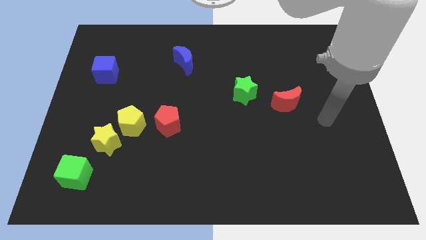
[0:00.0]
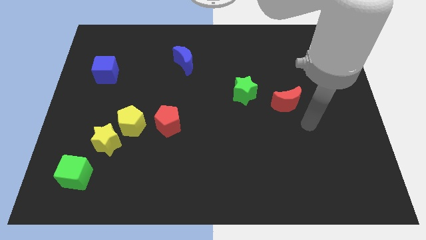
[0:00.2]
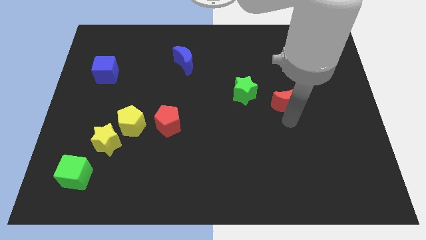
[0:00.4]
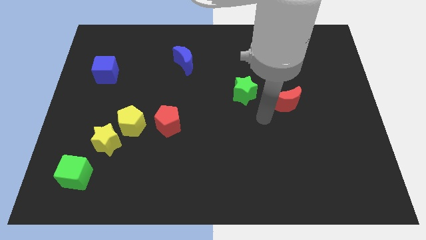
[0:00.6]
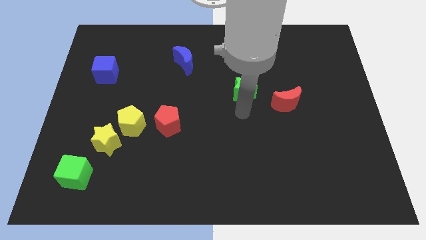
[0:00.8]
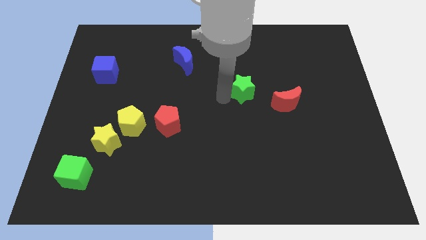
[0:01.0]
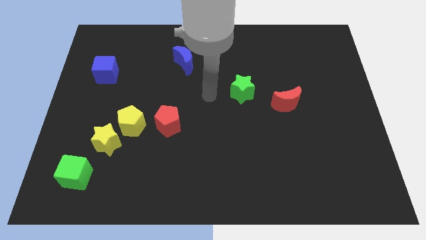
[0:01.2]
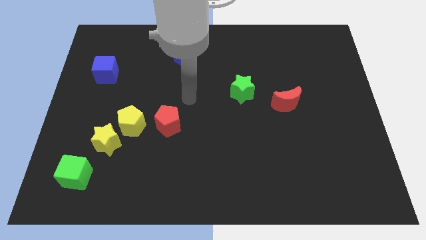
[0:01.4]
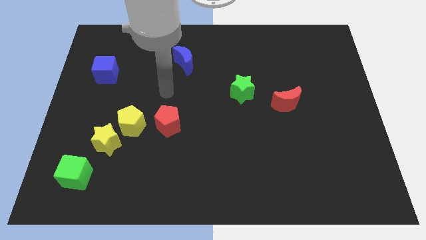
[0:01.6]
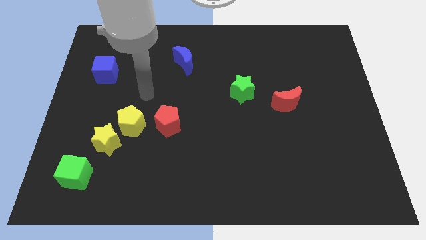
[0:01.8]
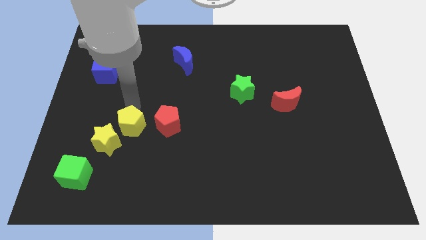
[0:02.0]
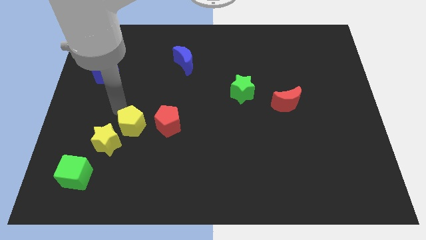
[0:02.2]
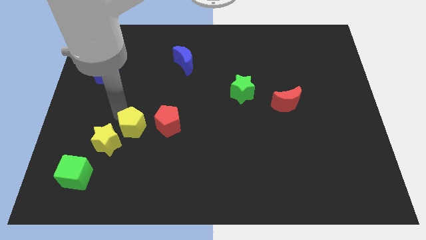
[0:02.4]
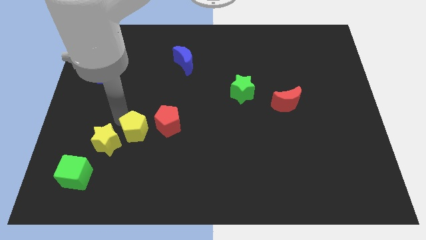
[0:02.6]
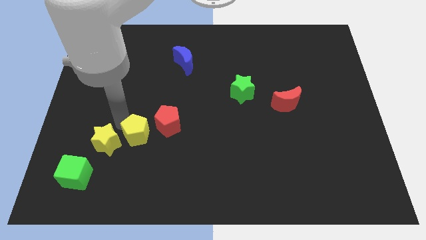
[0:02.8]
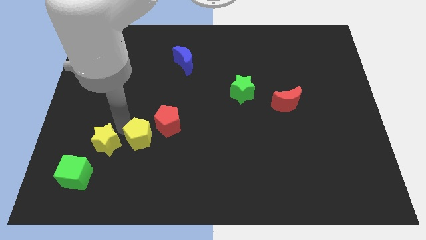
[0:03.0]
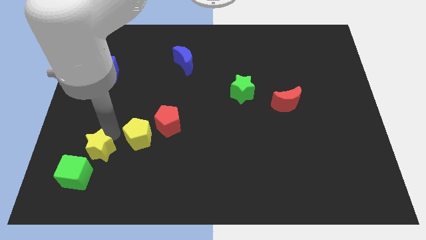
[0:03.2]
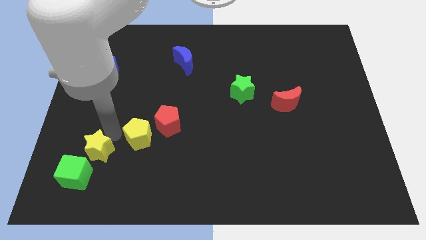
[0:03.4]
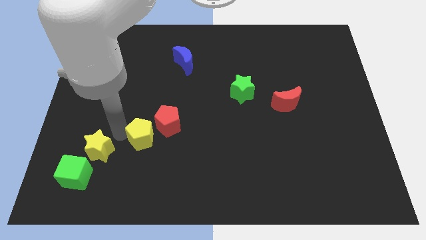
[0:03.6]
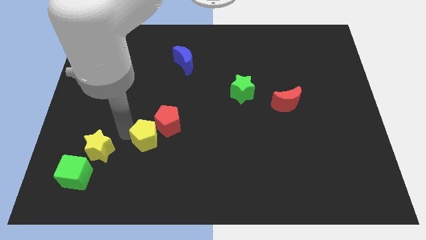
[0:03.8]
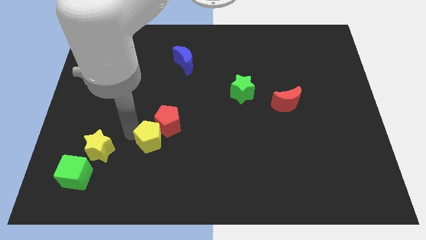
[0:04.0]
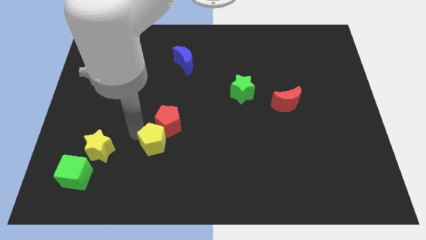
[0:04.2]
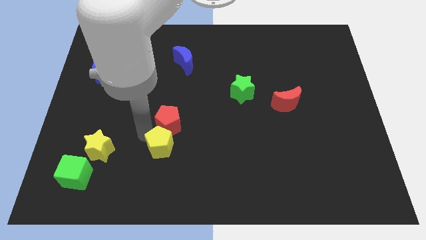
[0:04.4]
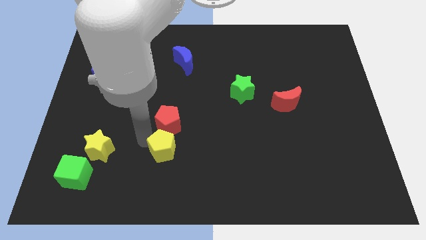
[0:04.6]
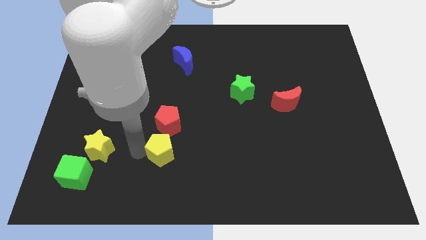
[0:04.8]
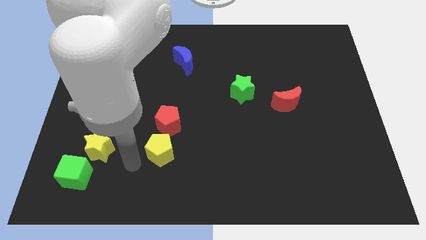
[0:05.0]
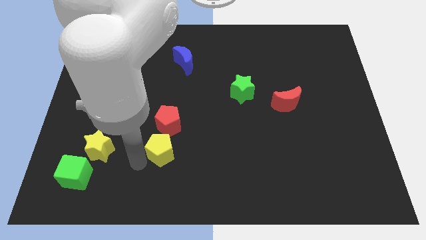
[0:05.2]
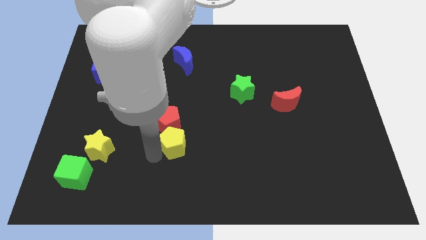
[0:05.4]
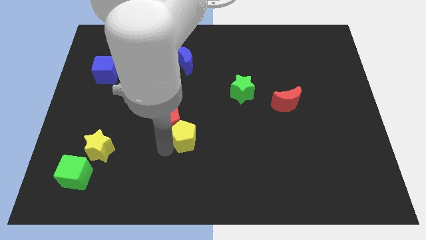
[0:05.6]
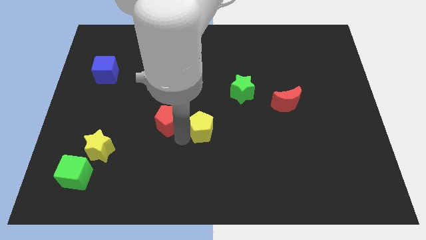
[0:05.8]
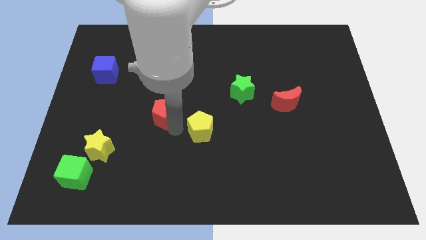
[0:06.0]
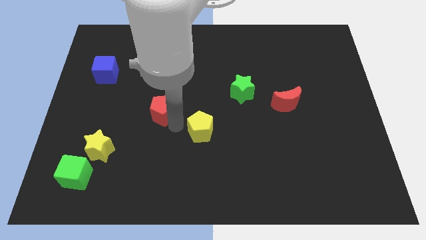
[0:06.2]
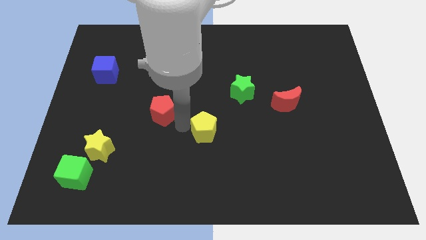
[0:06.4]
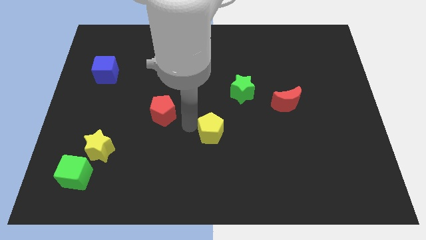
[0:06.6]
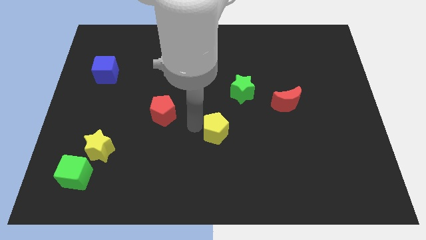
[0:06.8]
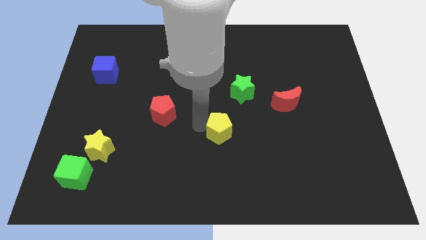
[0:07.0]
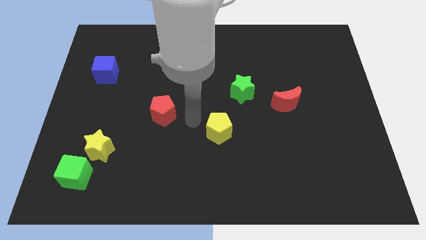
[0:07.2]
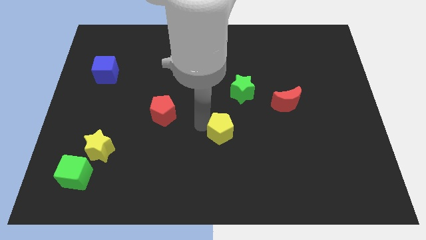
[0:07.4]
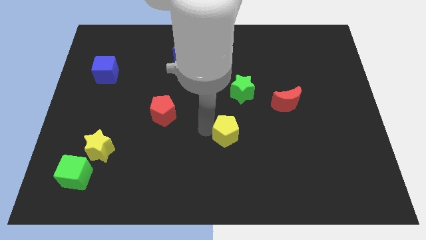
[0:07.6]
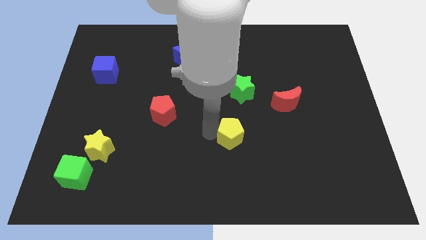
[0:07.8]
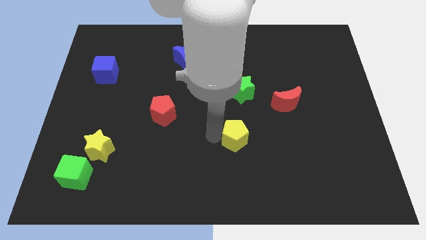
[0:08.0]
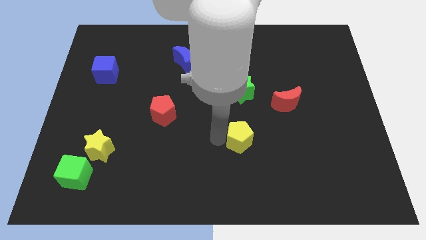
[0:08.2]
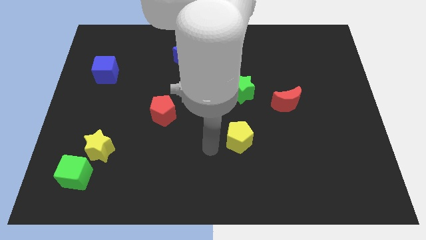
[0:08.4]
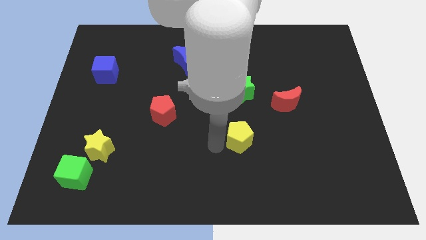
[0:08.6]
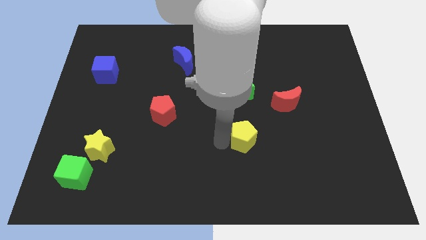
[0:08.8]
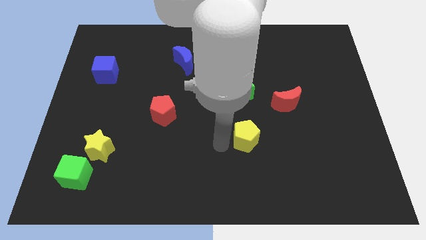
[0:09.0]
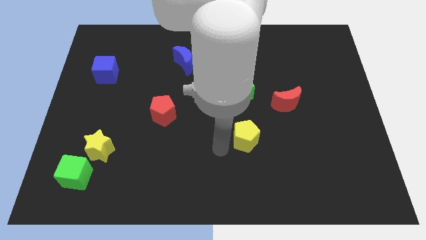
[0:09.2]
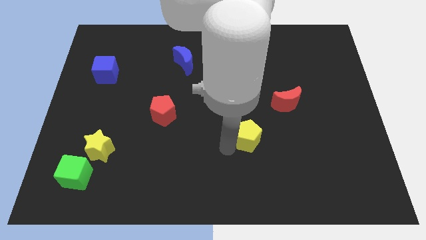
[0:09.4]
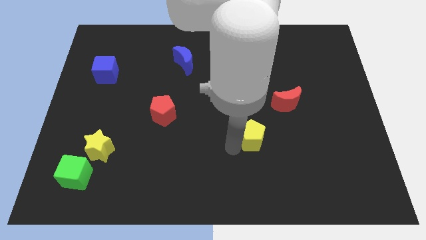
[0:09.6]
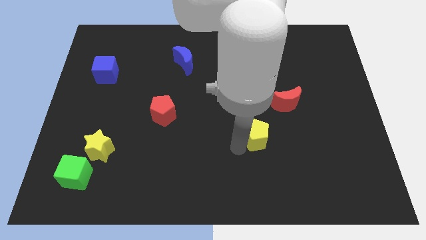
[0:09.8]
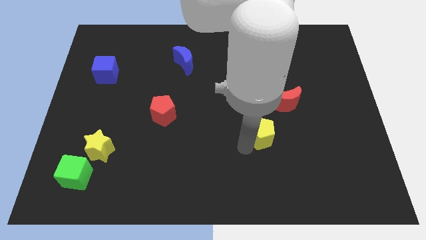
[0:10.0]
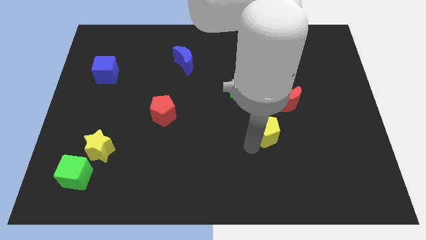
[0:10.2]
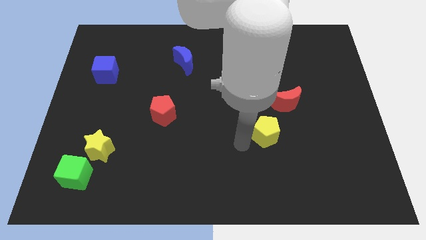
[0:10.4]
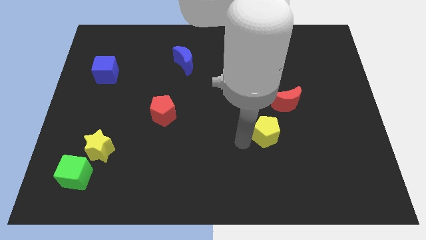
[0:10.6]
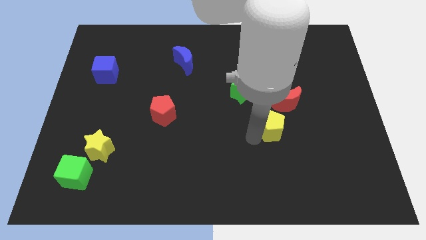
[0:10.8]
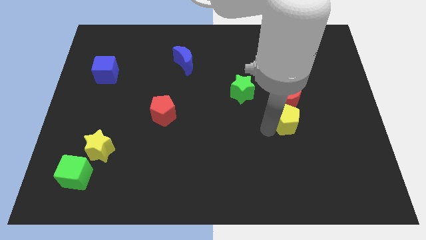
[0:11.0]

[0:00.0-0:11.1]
push the yellow pentagon to the bottom right of the red moon

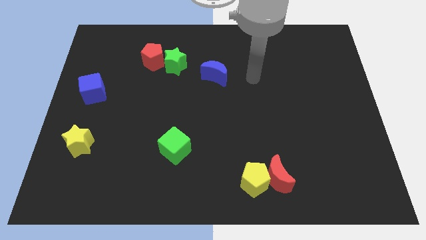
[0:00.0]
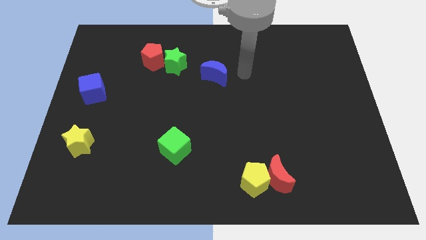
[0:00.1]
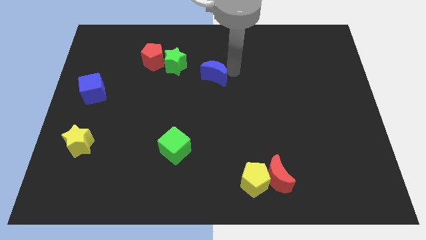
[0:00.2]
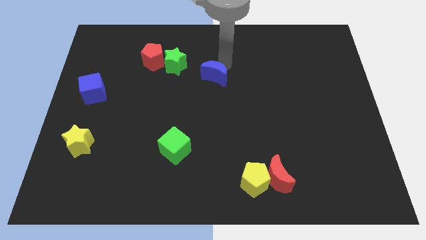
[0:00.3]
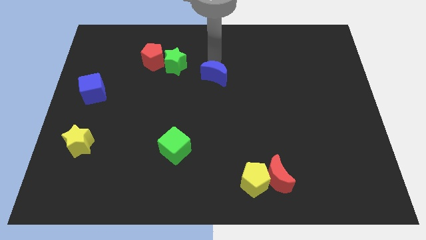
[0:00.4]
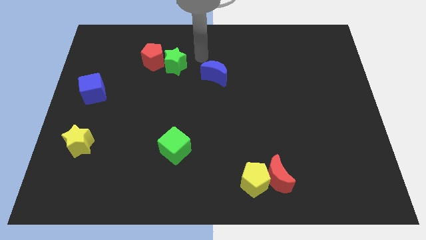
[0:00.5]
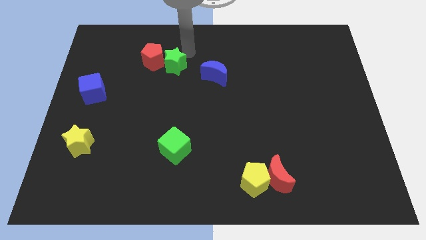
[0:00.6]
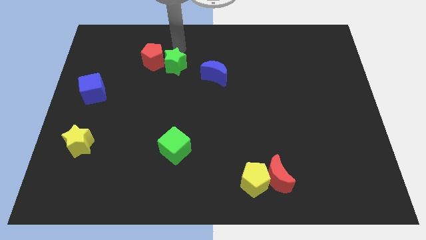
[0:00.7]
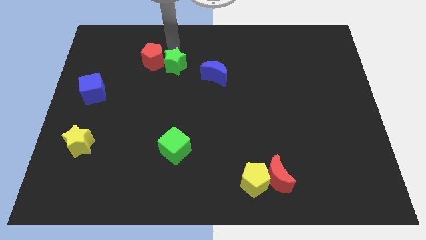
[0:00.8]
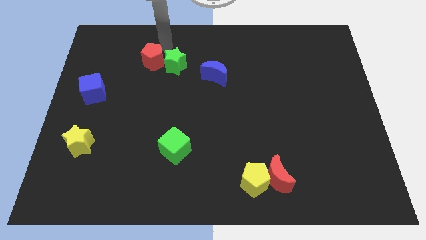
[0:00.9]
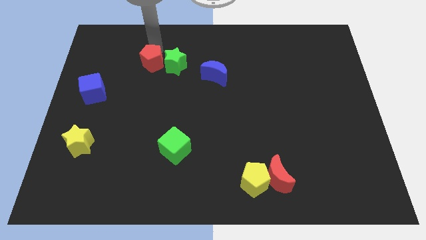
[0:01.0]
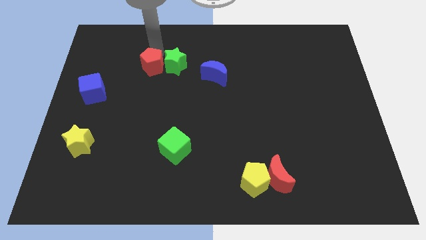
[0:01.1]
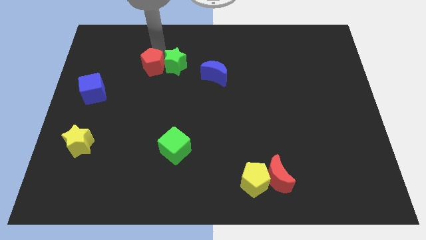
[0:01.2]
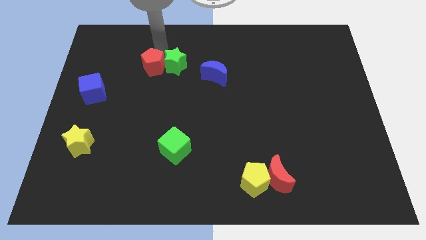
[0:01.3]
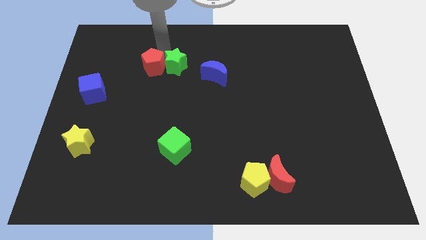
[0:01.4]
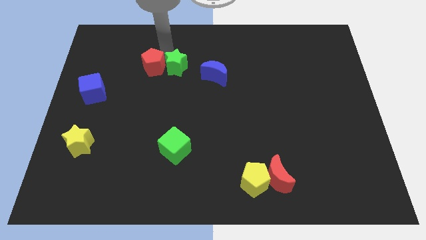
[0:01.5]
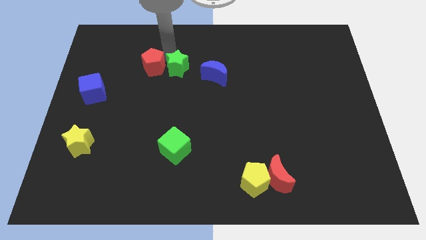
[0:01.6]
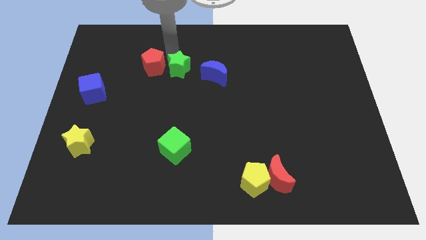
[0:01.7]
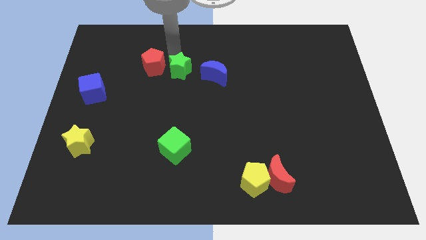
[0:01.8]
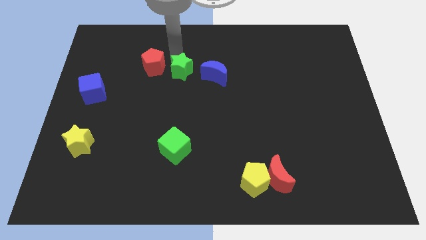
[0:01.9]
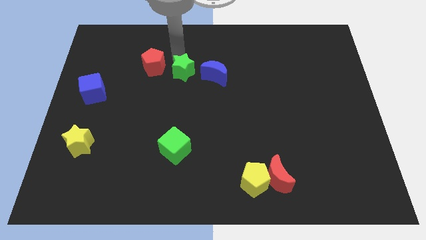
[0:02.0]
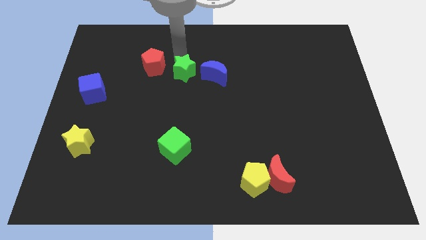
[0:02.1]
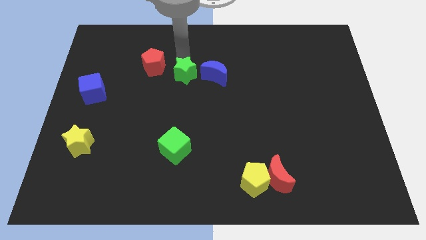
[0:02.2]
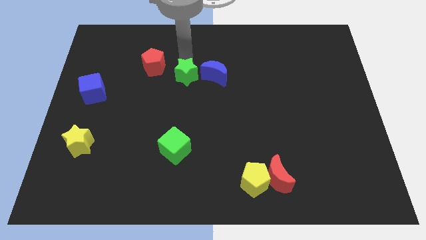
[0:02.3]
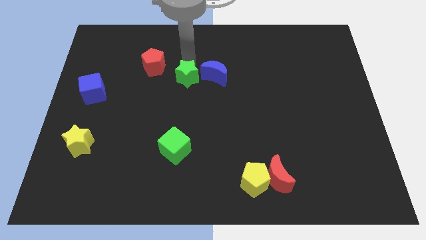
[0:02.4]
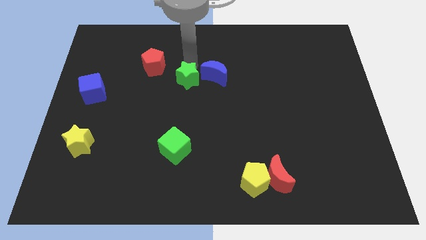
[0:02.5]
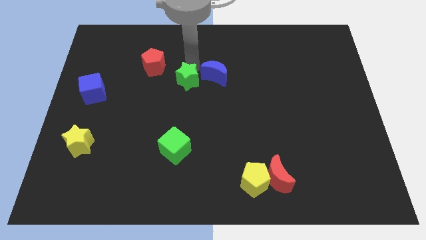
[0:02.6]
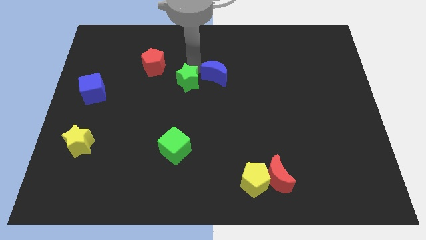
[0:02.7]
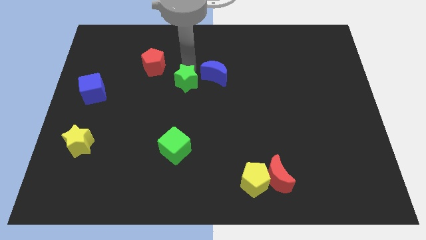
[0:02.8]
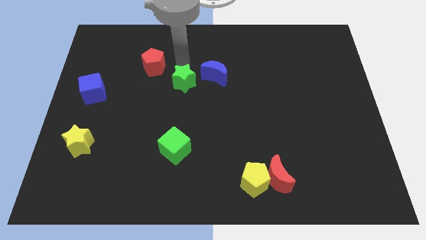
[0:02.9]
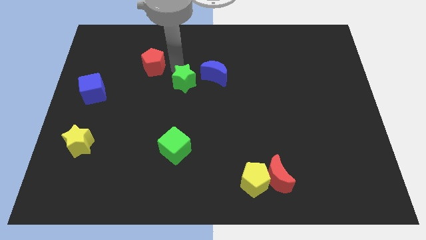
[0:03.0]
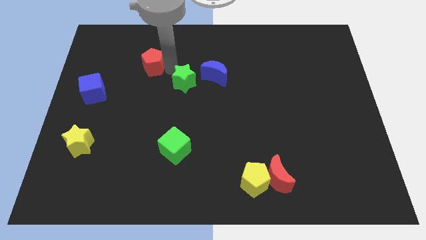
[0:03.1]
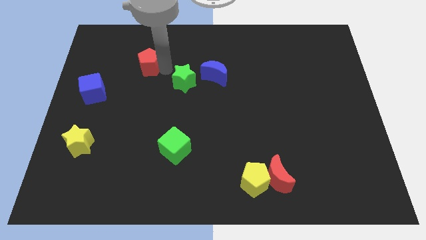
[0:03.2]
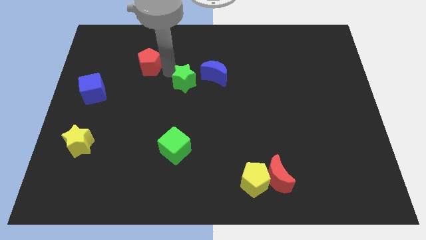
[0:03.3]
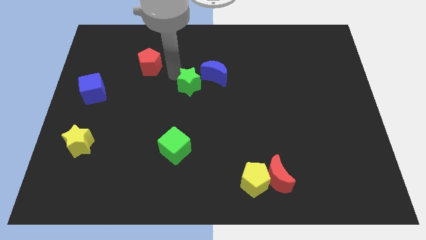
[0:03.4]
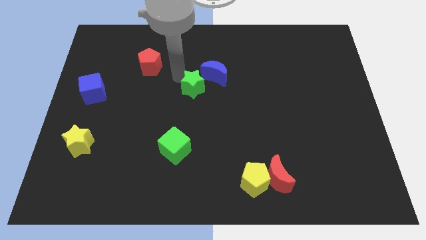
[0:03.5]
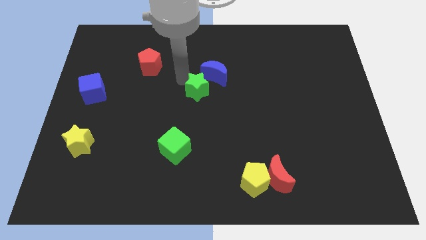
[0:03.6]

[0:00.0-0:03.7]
move the green star to the bottom side of the blue moon
